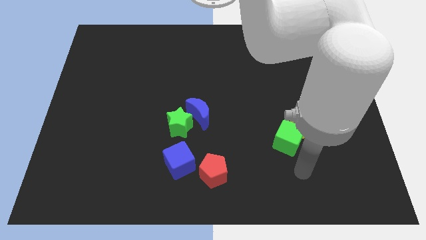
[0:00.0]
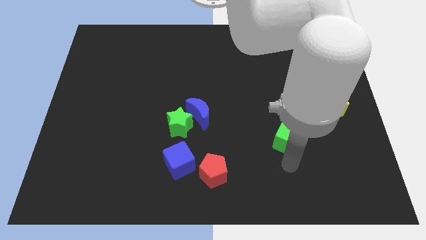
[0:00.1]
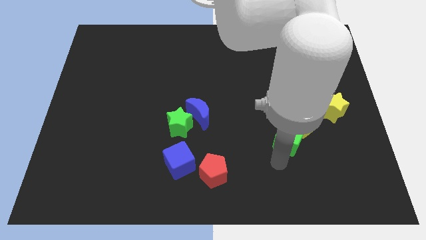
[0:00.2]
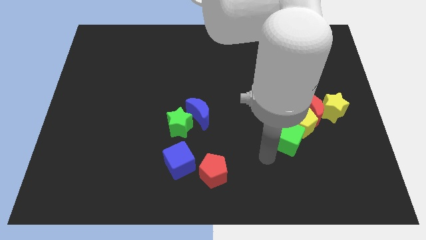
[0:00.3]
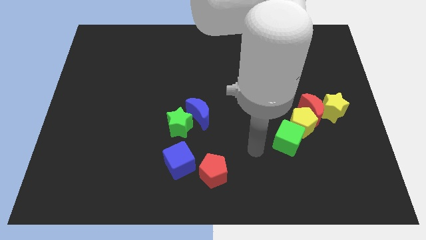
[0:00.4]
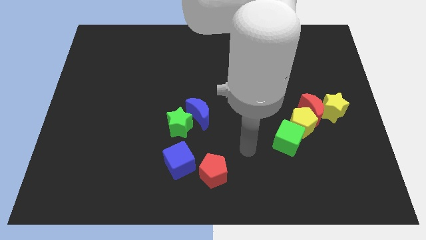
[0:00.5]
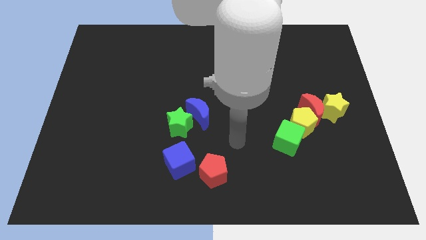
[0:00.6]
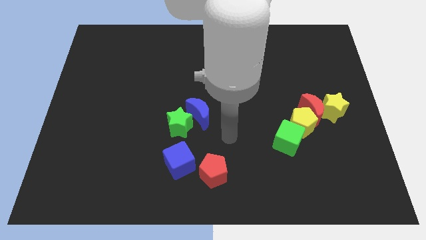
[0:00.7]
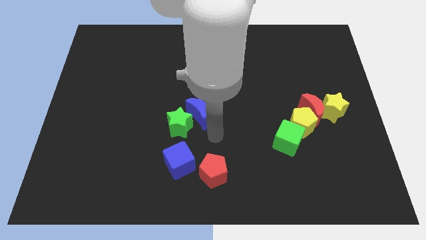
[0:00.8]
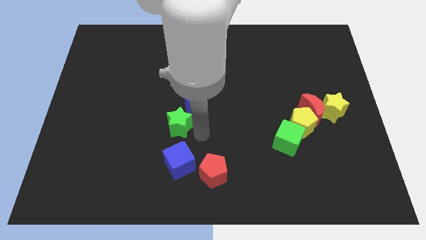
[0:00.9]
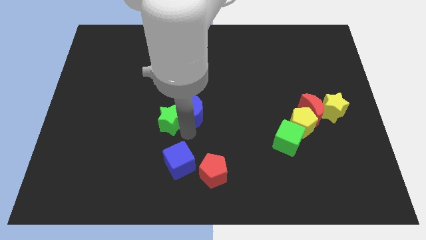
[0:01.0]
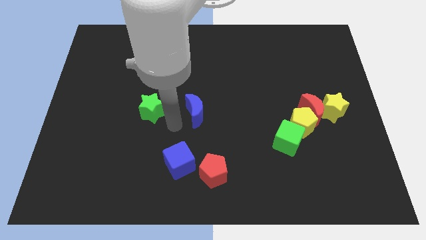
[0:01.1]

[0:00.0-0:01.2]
separate the blue moon from the green star

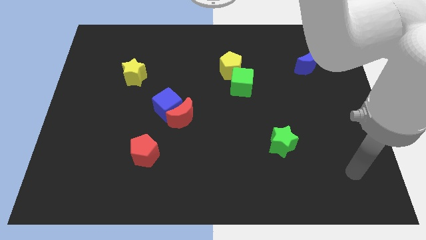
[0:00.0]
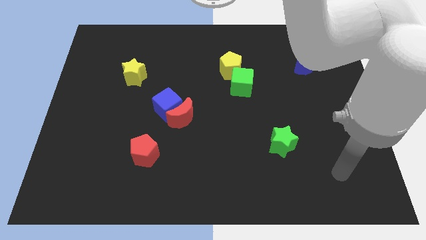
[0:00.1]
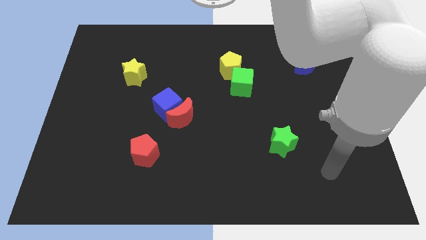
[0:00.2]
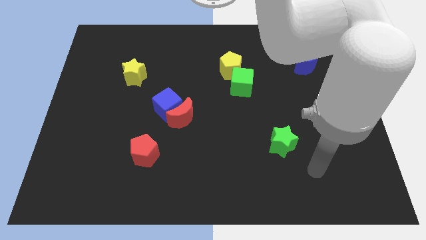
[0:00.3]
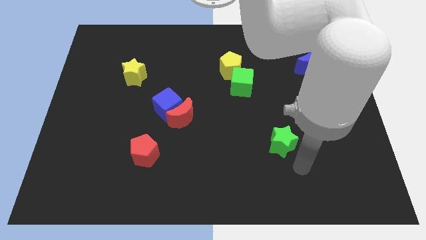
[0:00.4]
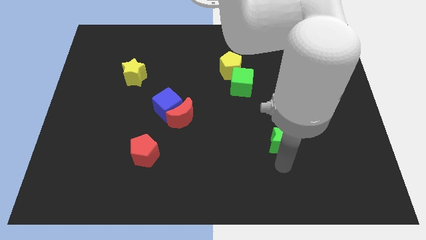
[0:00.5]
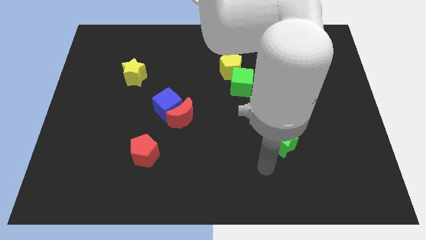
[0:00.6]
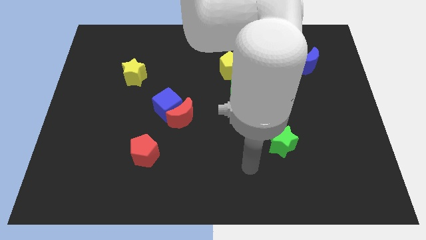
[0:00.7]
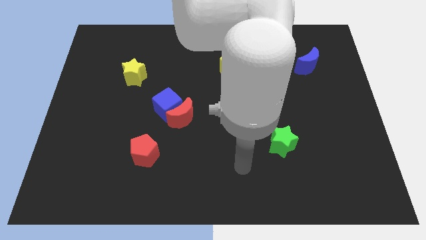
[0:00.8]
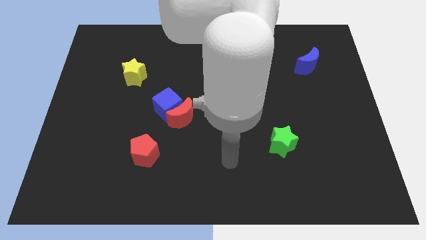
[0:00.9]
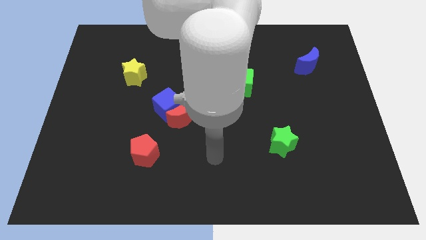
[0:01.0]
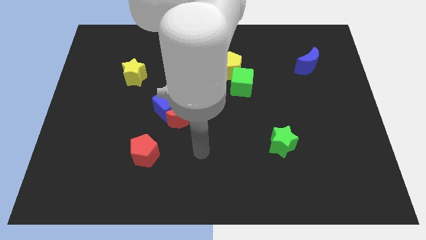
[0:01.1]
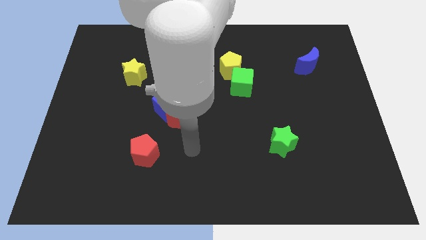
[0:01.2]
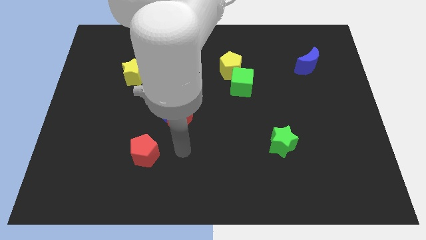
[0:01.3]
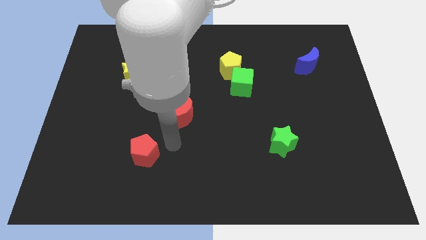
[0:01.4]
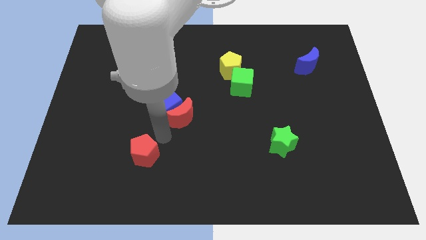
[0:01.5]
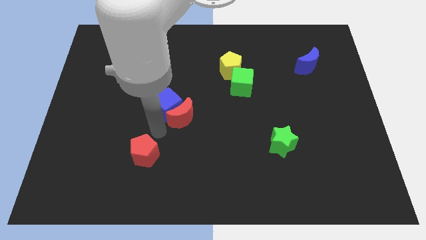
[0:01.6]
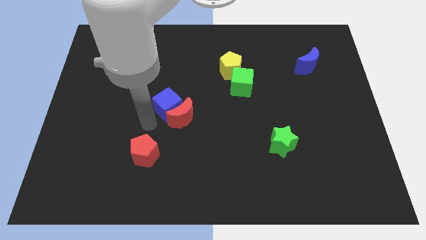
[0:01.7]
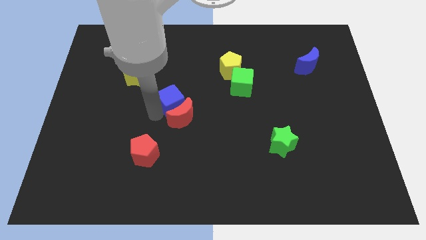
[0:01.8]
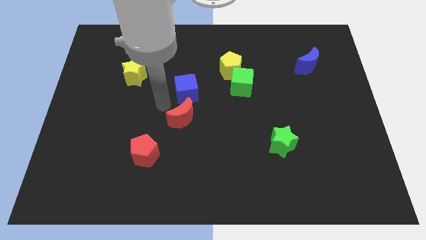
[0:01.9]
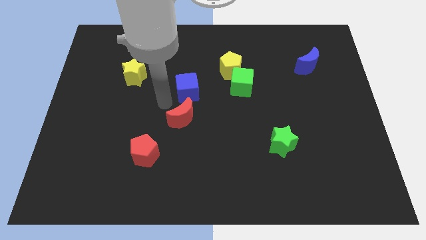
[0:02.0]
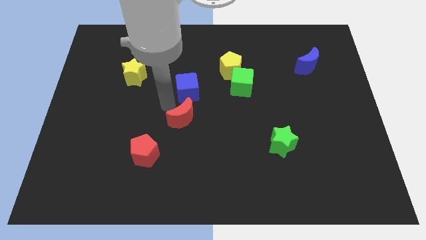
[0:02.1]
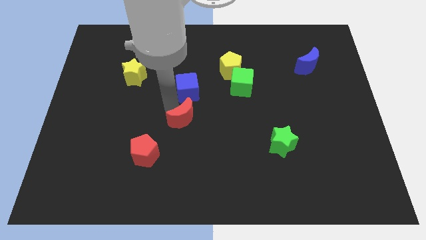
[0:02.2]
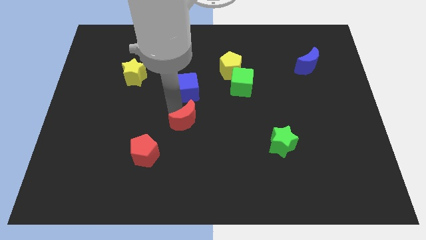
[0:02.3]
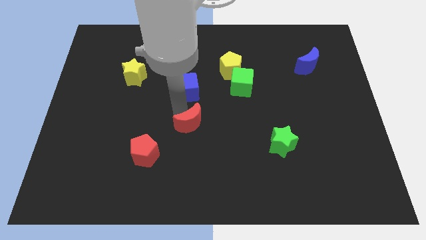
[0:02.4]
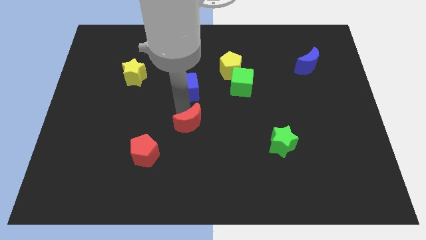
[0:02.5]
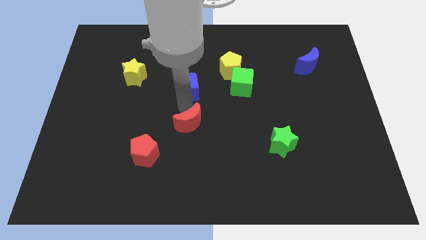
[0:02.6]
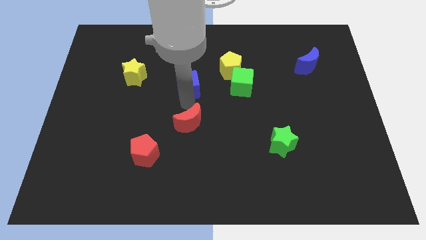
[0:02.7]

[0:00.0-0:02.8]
move the red moon away from the blue cube

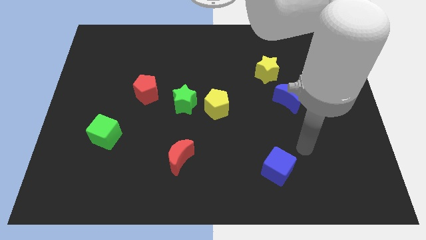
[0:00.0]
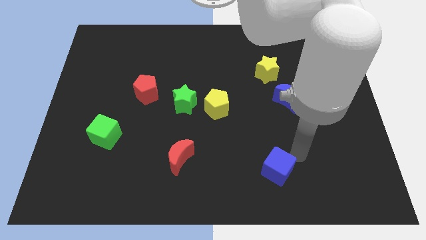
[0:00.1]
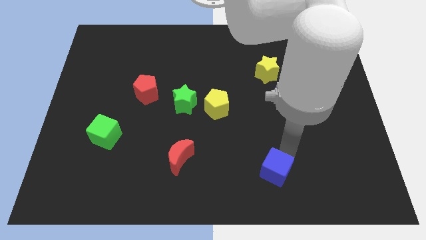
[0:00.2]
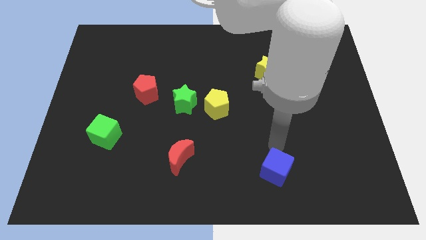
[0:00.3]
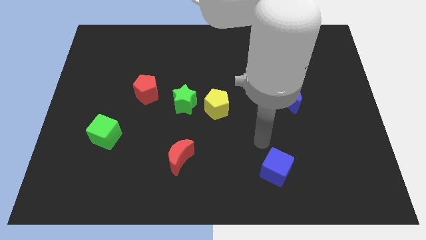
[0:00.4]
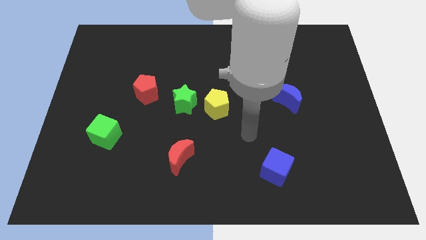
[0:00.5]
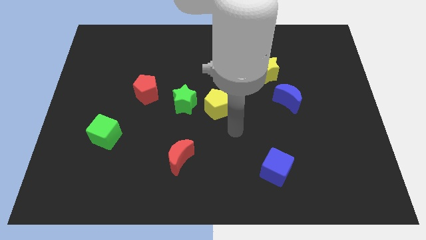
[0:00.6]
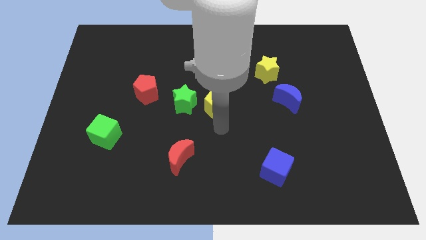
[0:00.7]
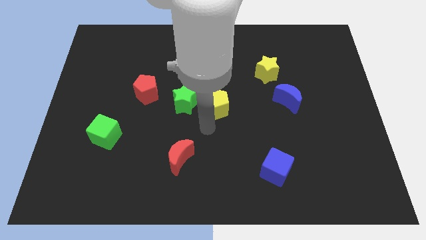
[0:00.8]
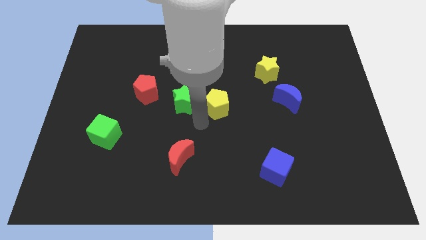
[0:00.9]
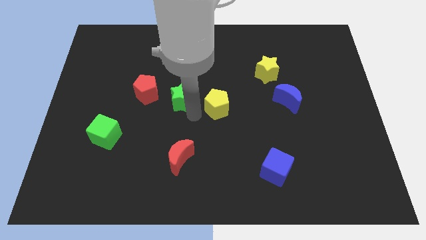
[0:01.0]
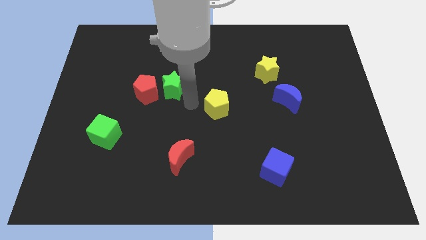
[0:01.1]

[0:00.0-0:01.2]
pull the yellow pentagon apart from the green star

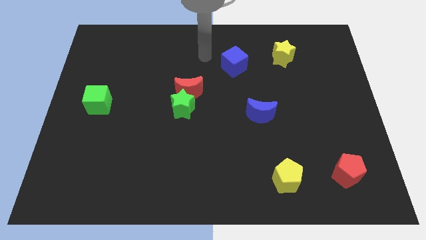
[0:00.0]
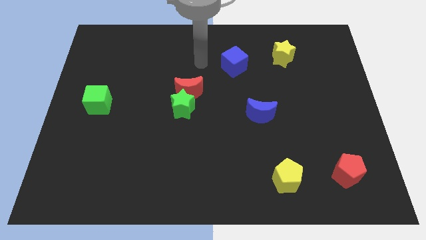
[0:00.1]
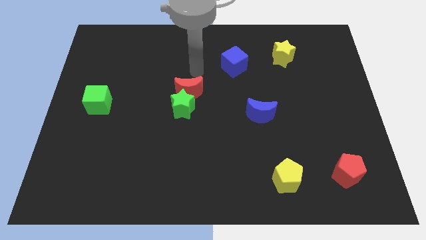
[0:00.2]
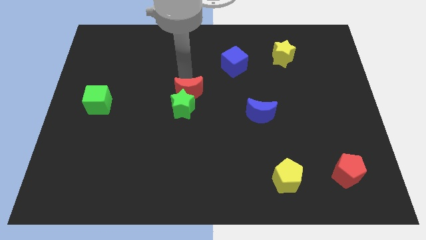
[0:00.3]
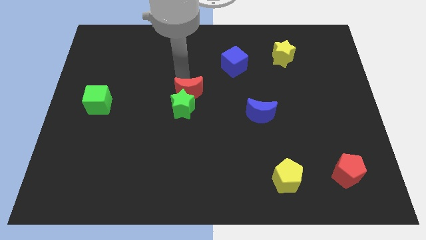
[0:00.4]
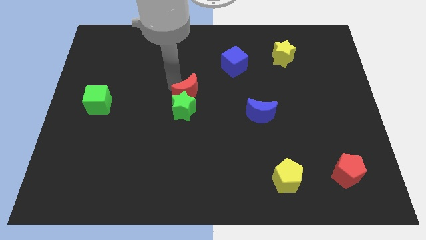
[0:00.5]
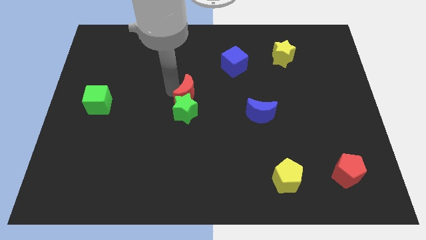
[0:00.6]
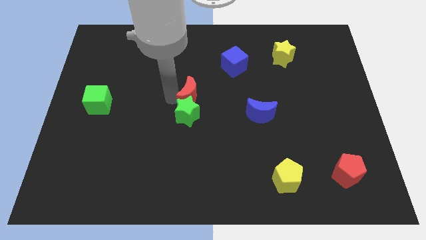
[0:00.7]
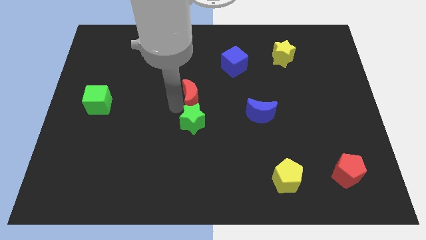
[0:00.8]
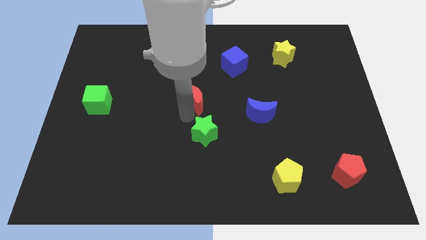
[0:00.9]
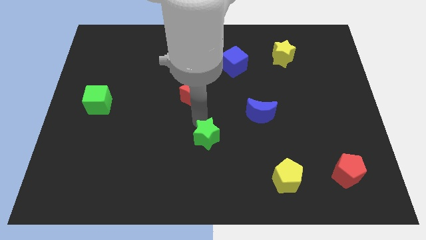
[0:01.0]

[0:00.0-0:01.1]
move the red moon away from the green star

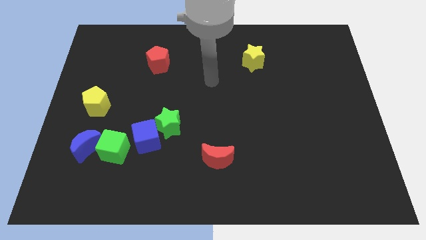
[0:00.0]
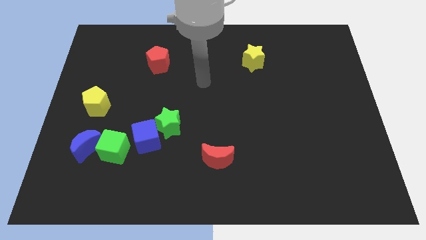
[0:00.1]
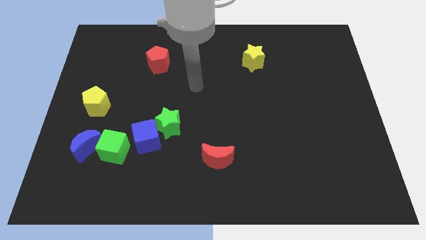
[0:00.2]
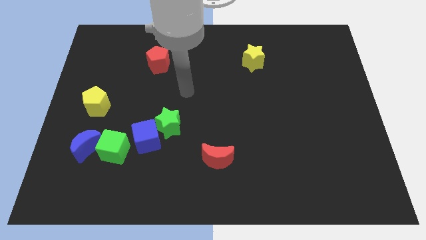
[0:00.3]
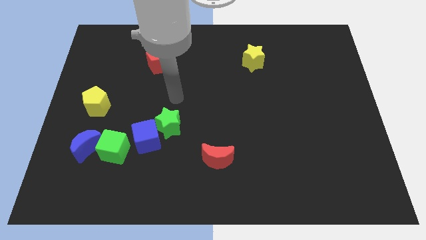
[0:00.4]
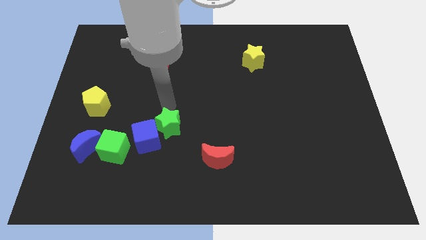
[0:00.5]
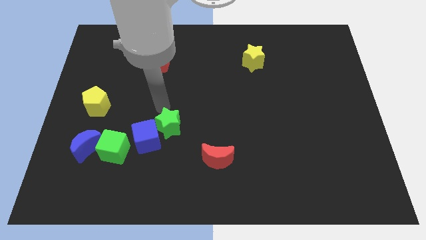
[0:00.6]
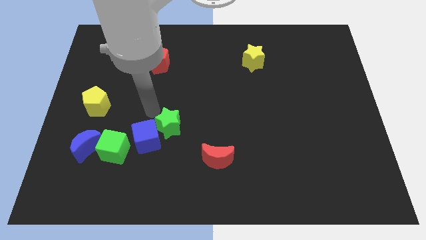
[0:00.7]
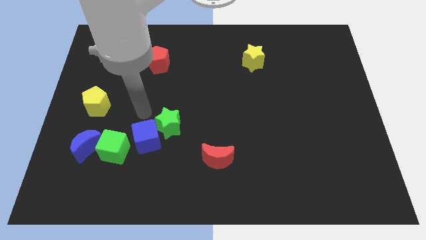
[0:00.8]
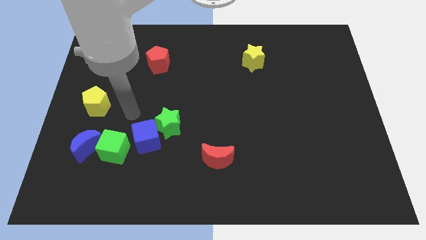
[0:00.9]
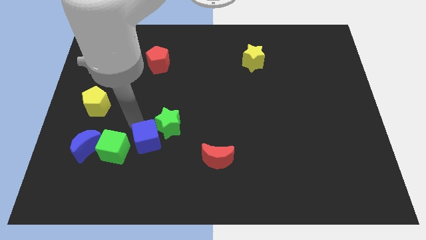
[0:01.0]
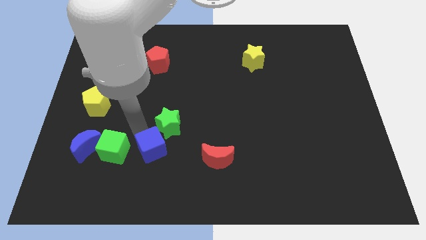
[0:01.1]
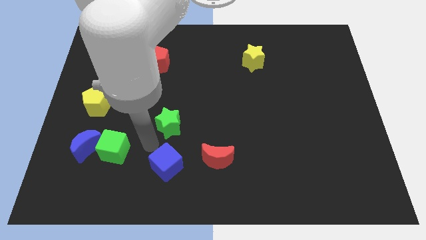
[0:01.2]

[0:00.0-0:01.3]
move the green star away from the blue cube

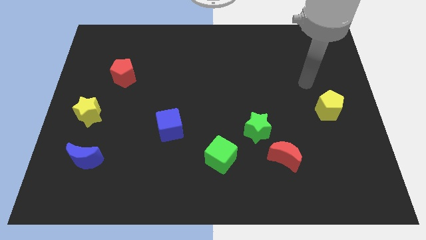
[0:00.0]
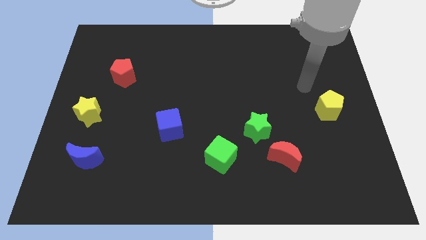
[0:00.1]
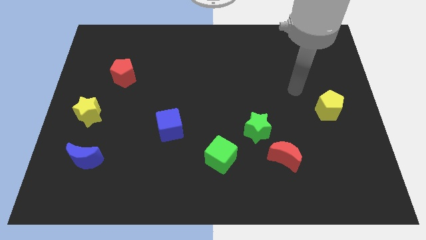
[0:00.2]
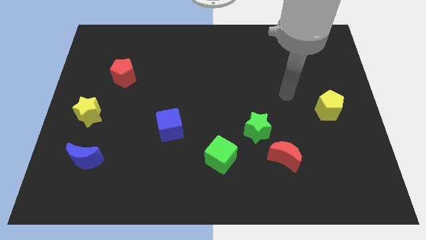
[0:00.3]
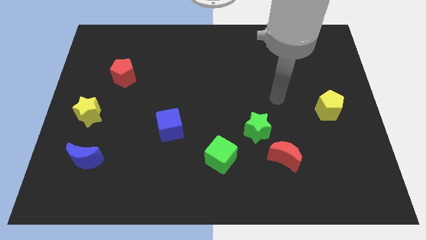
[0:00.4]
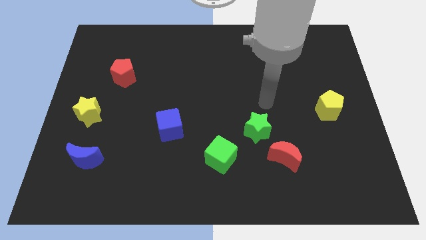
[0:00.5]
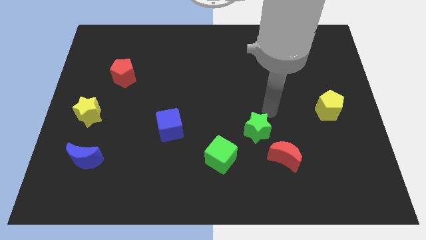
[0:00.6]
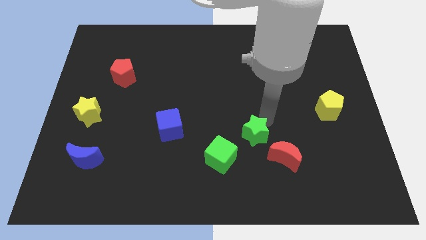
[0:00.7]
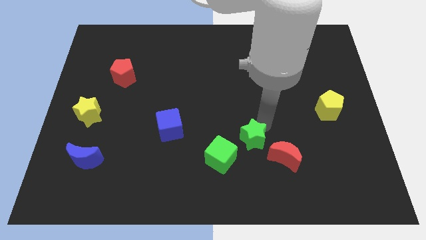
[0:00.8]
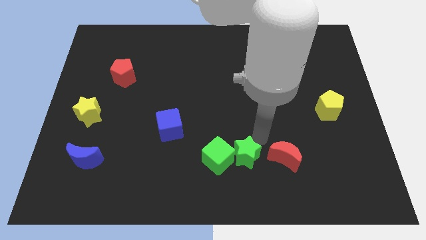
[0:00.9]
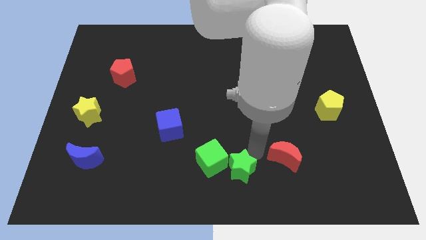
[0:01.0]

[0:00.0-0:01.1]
pull the red moon apart from the green star

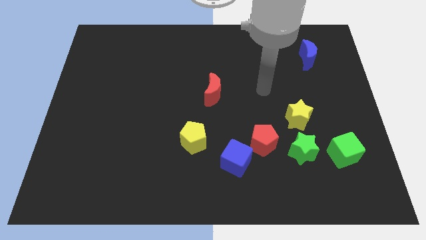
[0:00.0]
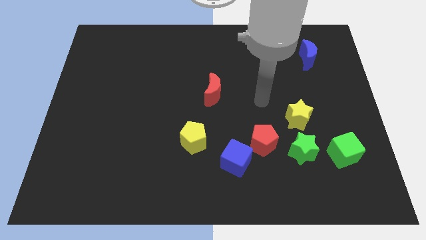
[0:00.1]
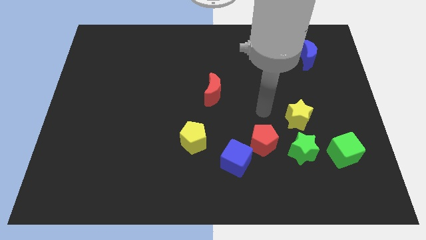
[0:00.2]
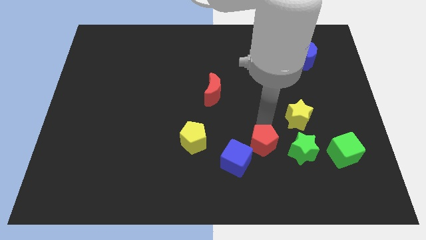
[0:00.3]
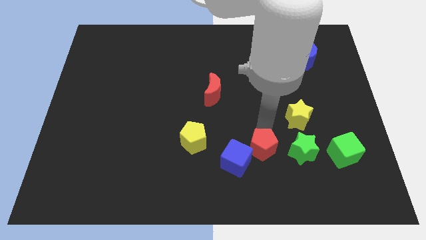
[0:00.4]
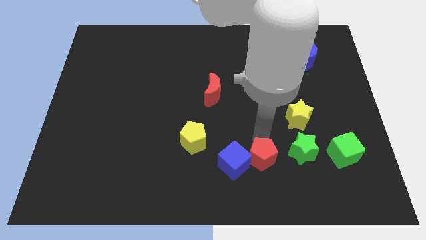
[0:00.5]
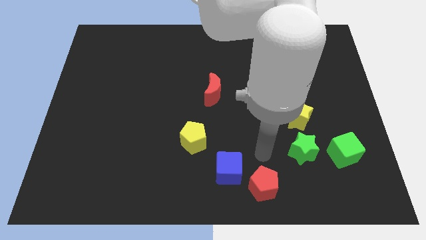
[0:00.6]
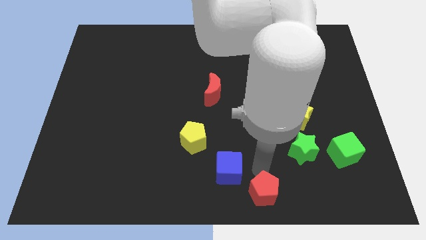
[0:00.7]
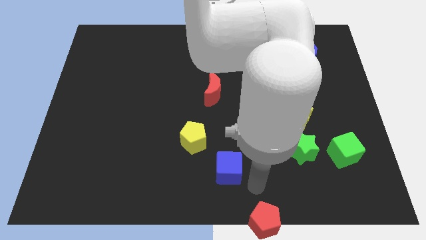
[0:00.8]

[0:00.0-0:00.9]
separate the blue cube from the red pentagon
